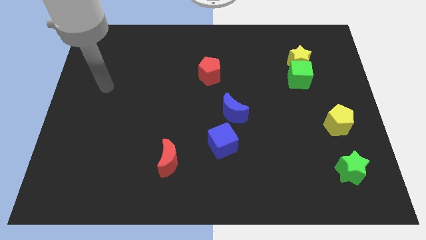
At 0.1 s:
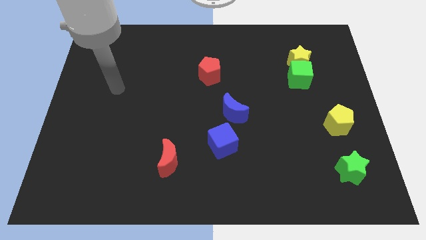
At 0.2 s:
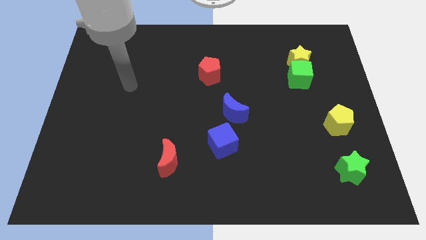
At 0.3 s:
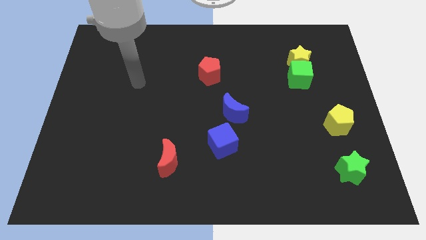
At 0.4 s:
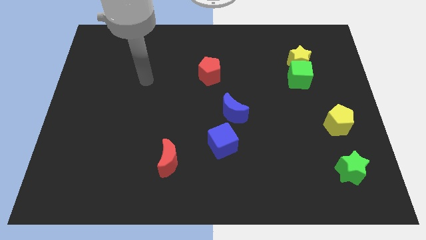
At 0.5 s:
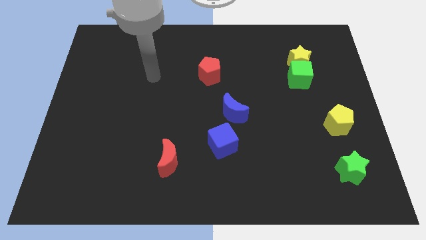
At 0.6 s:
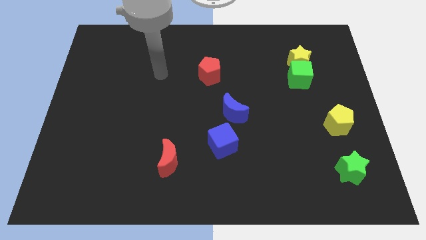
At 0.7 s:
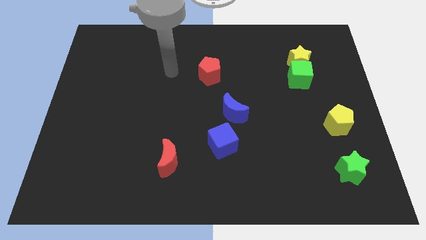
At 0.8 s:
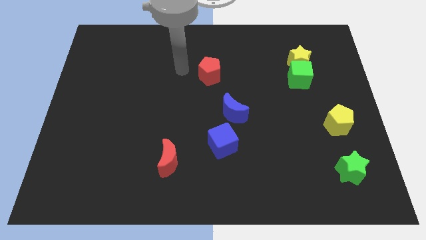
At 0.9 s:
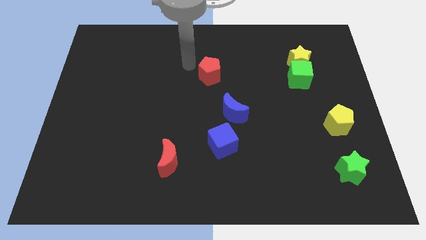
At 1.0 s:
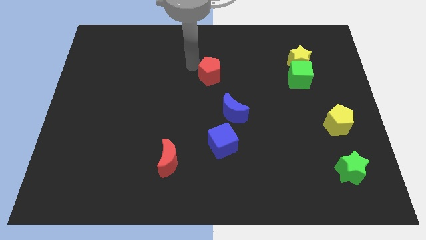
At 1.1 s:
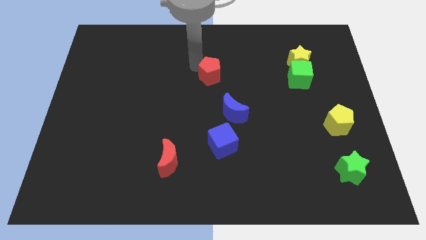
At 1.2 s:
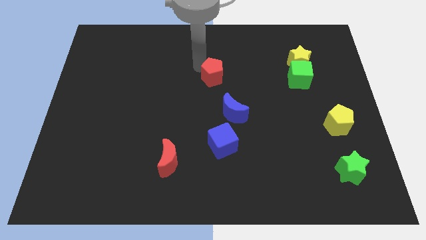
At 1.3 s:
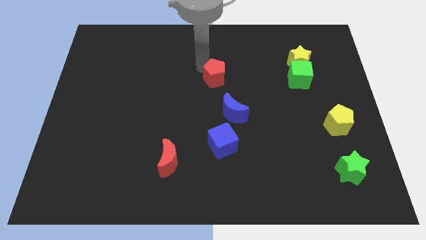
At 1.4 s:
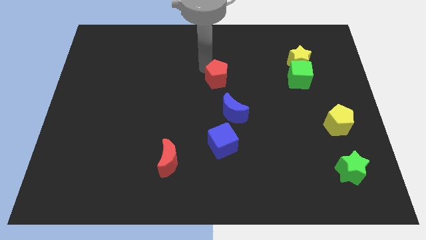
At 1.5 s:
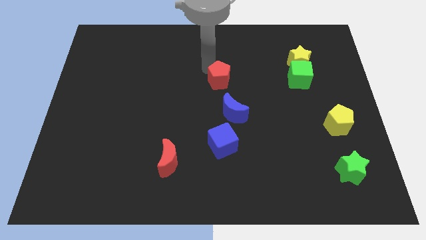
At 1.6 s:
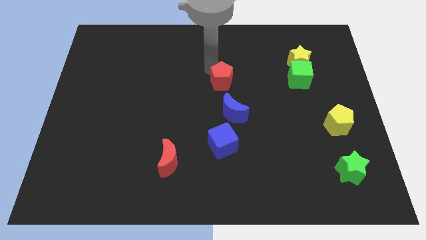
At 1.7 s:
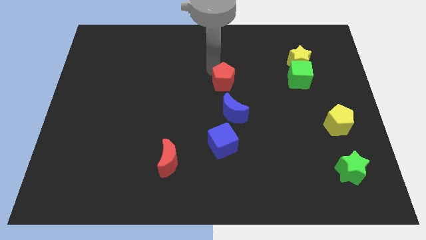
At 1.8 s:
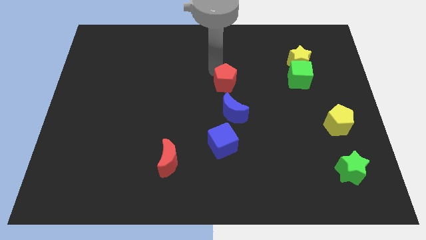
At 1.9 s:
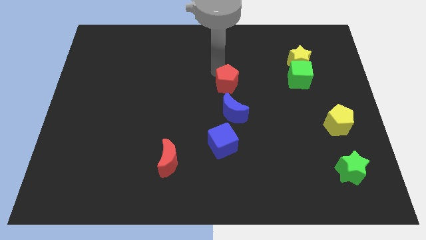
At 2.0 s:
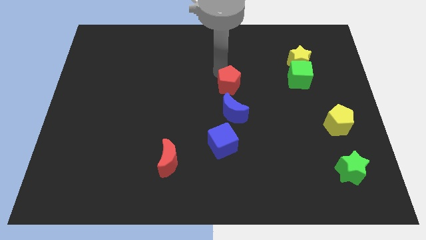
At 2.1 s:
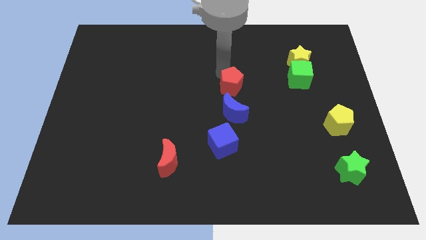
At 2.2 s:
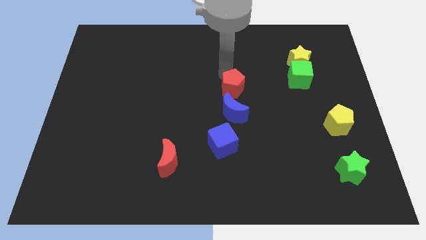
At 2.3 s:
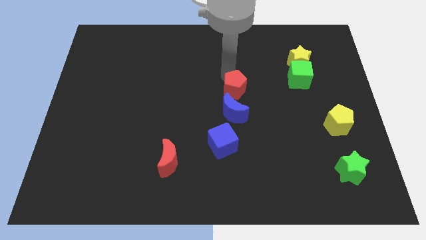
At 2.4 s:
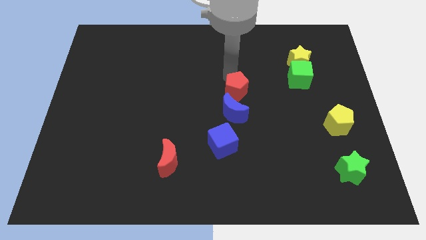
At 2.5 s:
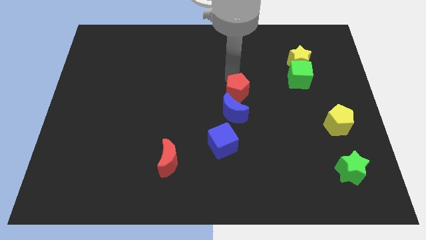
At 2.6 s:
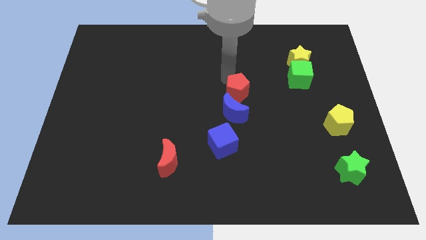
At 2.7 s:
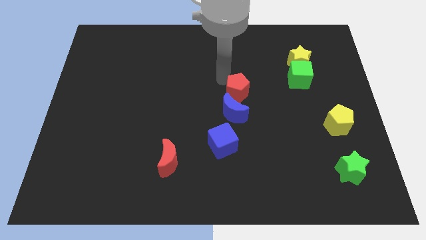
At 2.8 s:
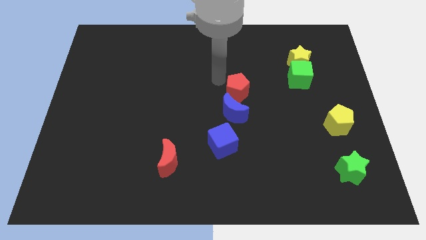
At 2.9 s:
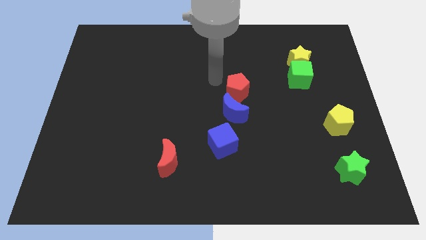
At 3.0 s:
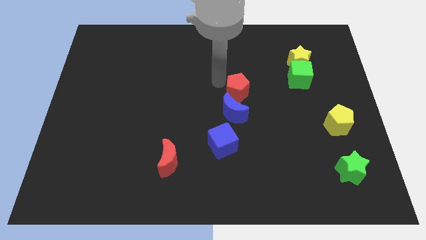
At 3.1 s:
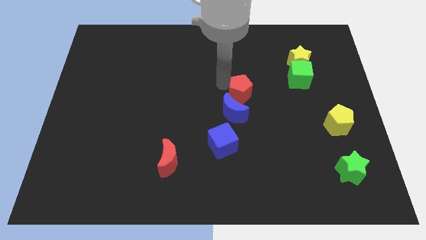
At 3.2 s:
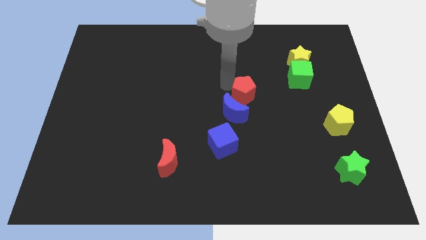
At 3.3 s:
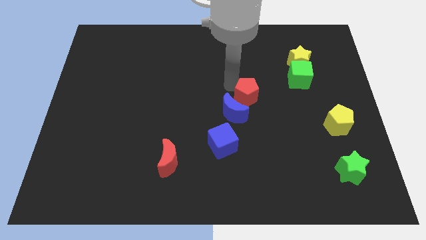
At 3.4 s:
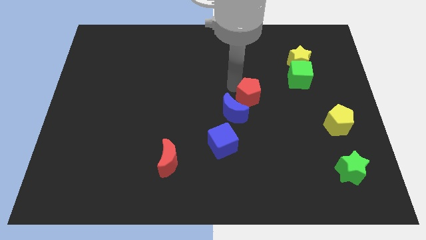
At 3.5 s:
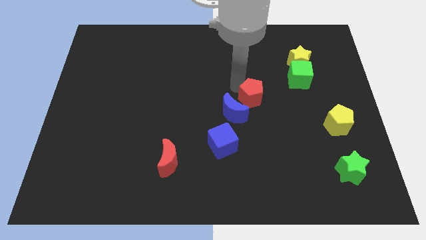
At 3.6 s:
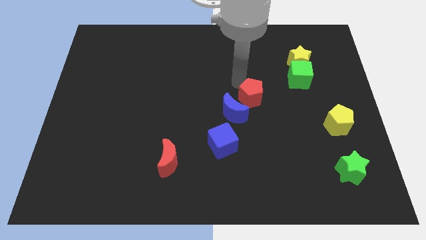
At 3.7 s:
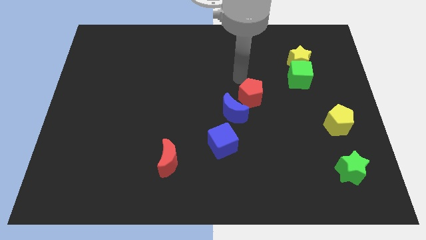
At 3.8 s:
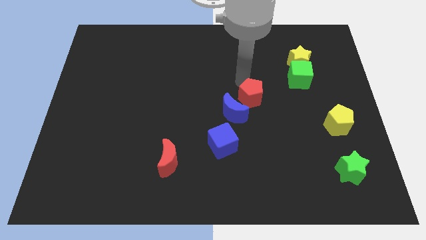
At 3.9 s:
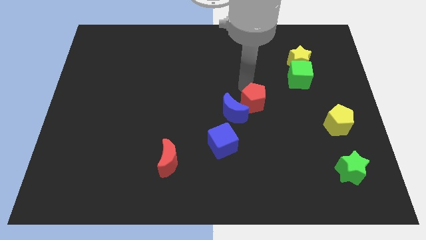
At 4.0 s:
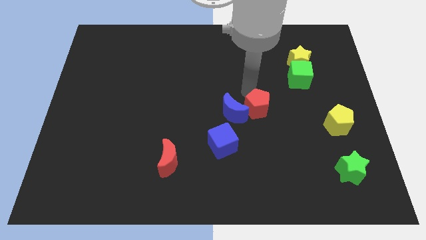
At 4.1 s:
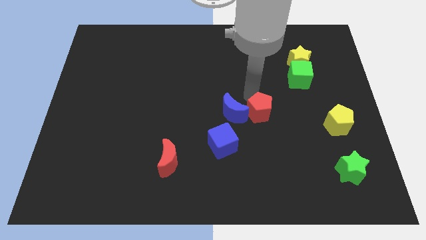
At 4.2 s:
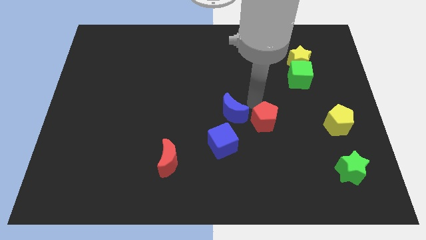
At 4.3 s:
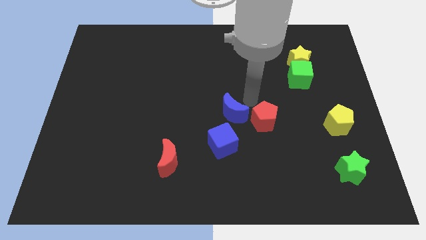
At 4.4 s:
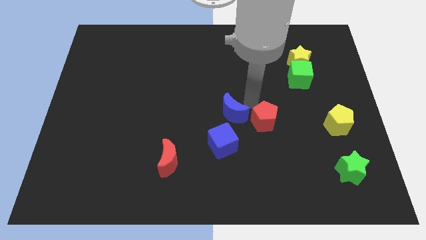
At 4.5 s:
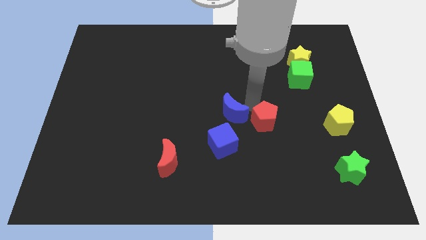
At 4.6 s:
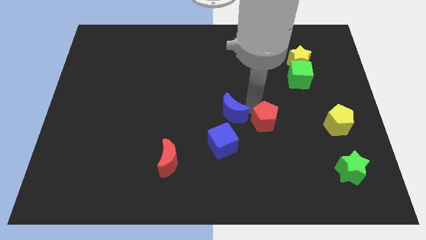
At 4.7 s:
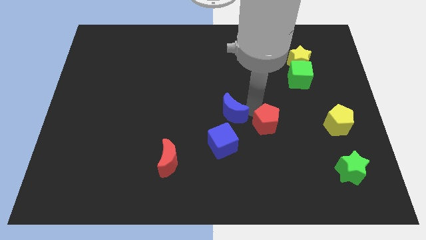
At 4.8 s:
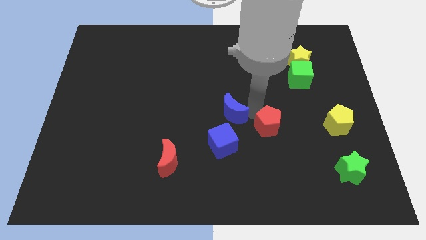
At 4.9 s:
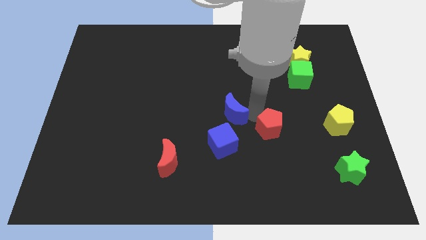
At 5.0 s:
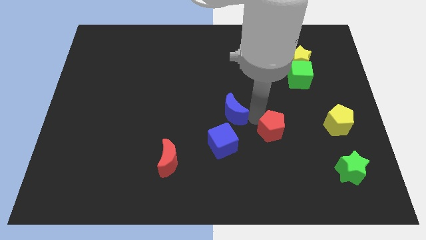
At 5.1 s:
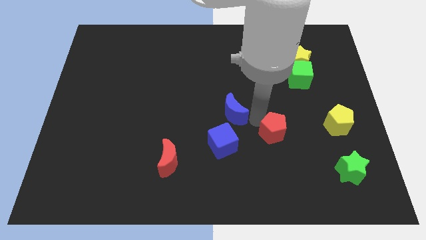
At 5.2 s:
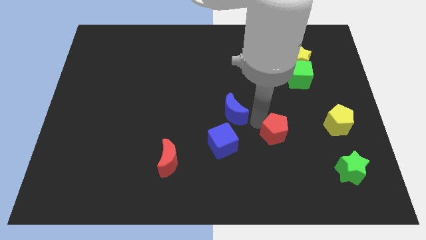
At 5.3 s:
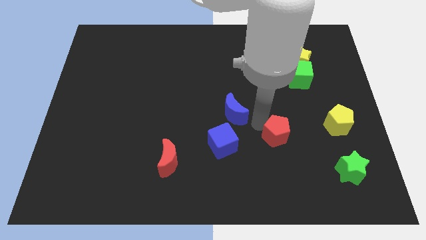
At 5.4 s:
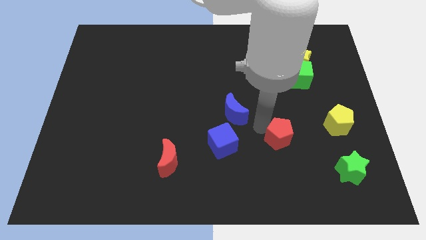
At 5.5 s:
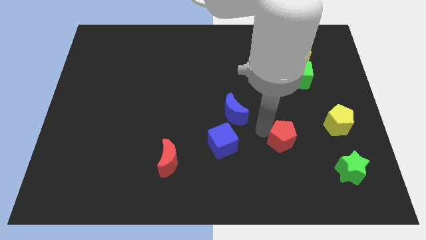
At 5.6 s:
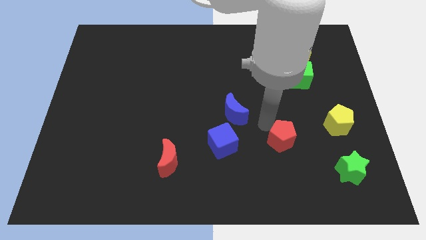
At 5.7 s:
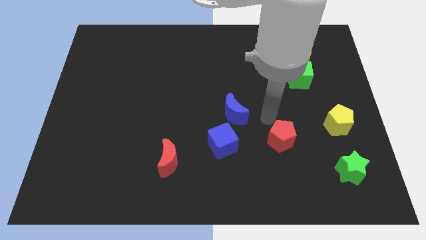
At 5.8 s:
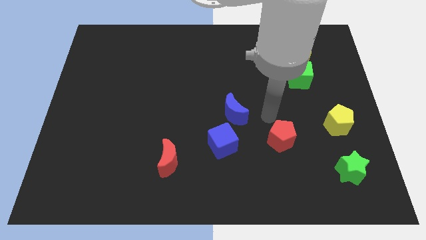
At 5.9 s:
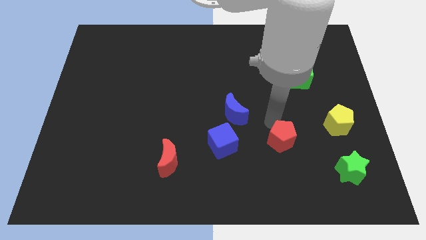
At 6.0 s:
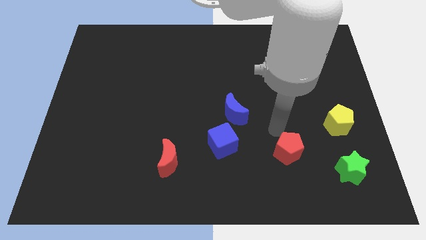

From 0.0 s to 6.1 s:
push the red pentagon to the left of the green star

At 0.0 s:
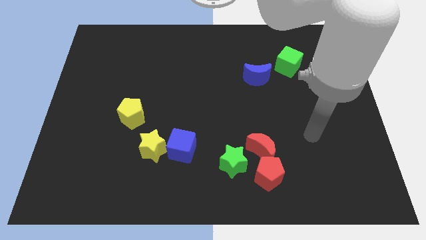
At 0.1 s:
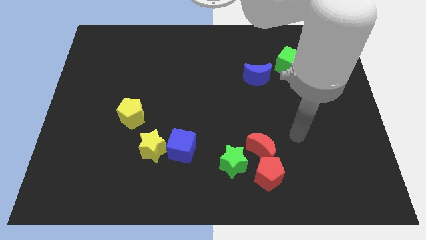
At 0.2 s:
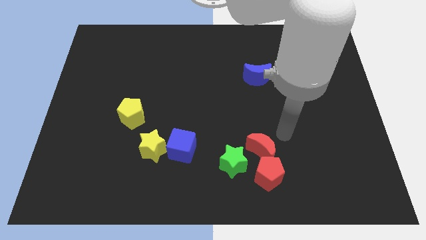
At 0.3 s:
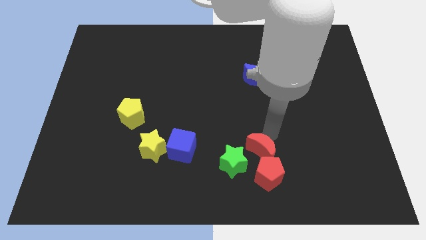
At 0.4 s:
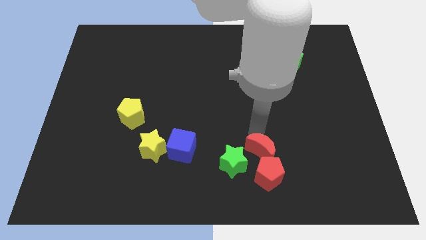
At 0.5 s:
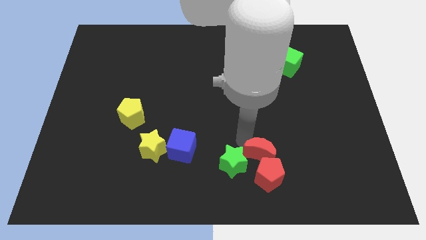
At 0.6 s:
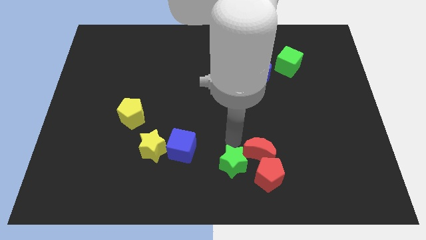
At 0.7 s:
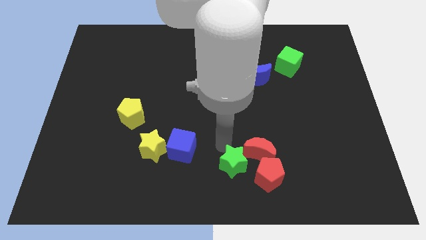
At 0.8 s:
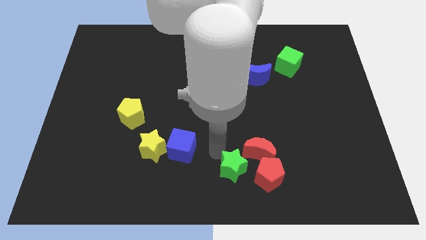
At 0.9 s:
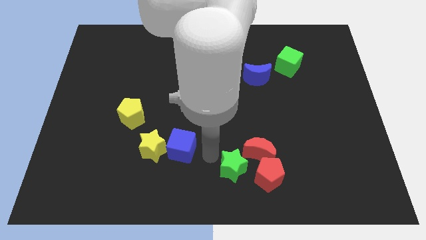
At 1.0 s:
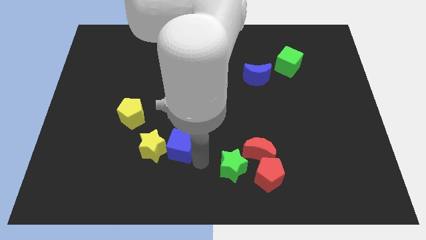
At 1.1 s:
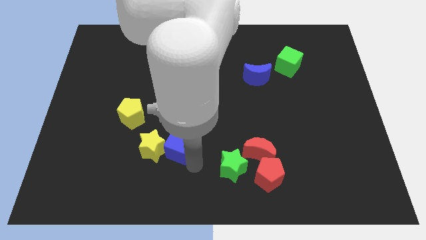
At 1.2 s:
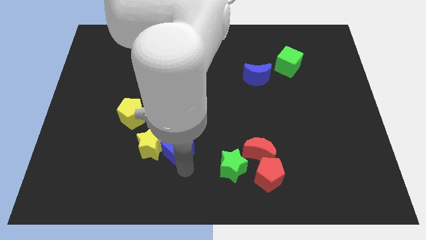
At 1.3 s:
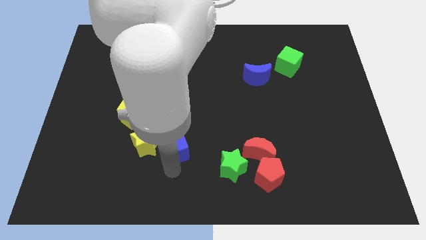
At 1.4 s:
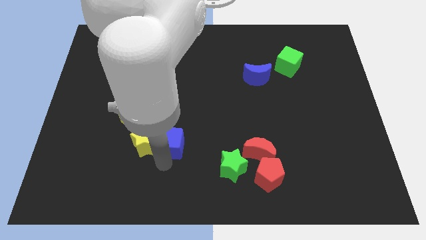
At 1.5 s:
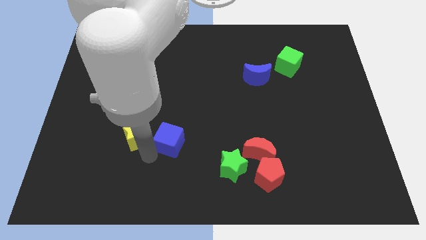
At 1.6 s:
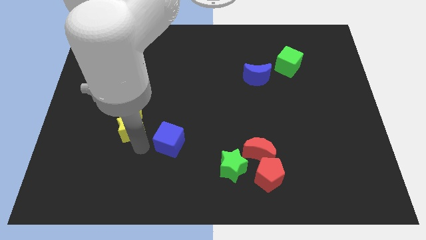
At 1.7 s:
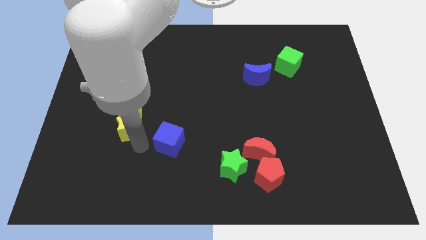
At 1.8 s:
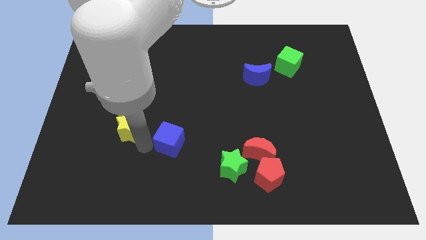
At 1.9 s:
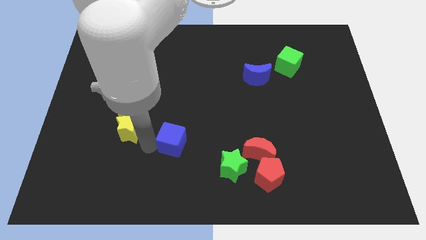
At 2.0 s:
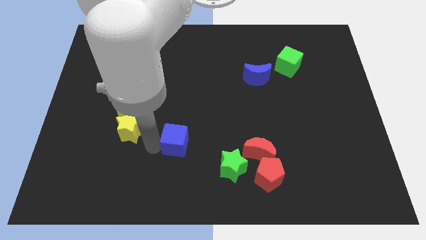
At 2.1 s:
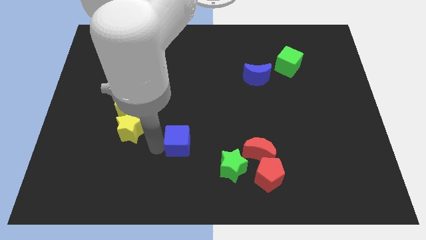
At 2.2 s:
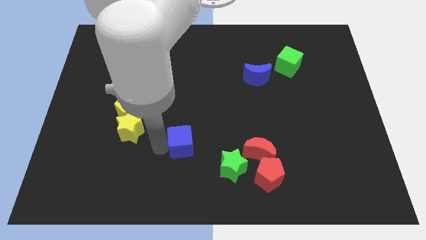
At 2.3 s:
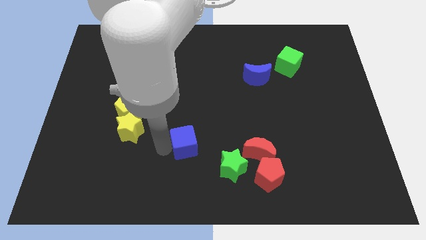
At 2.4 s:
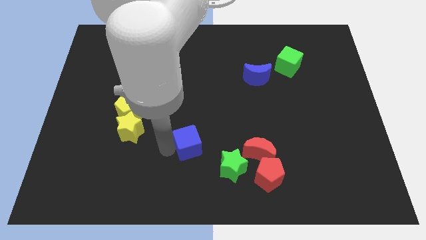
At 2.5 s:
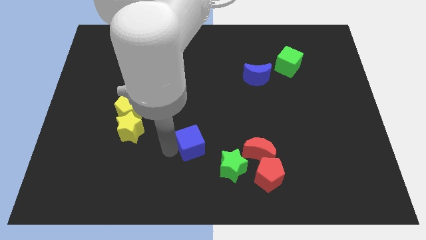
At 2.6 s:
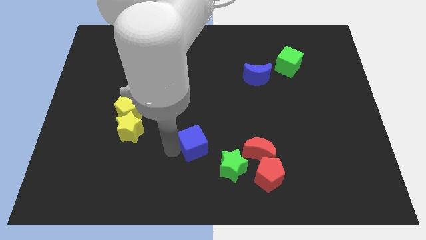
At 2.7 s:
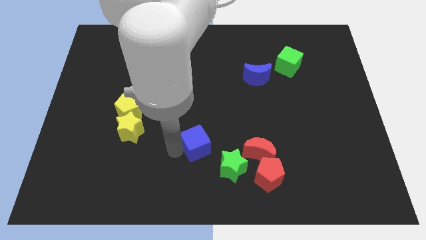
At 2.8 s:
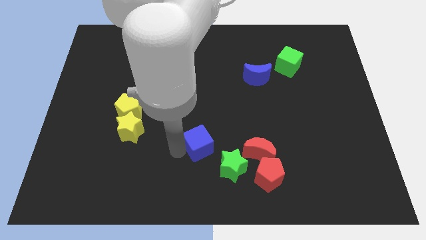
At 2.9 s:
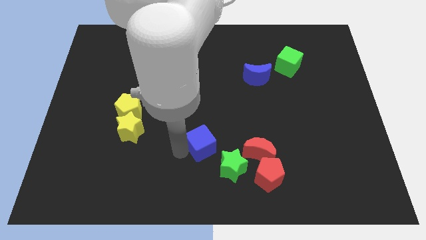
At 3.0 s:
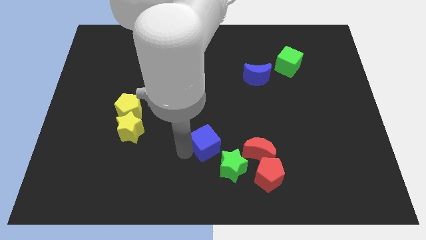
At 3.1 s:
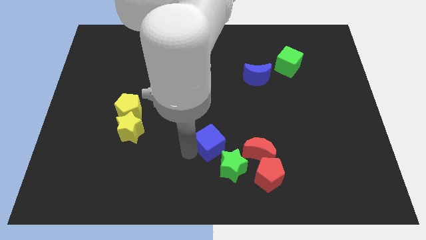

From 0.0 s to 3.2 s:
put the blue cube to the top of the green star
